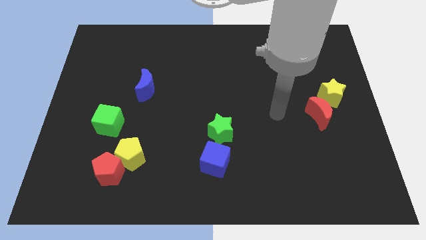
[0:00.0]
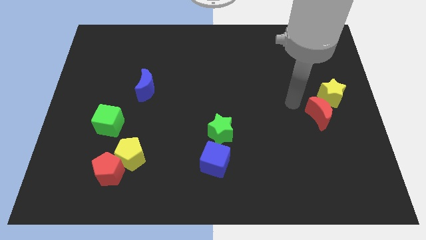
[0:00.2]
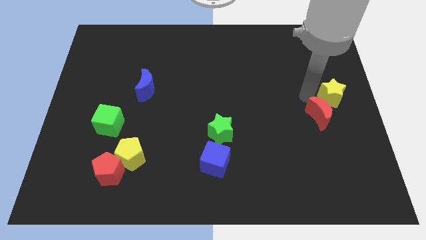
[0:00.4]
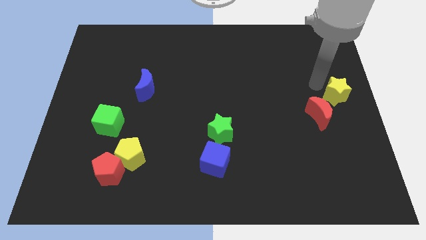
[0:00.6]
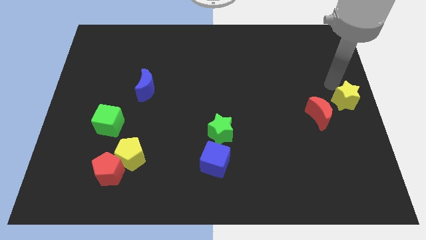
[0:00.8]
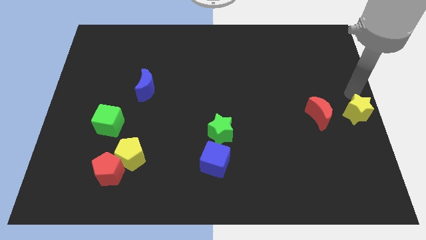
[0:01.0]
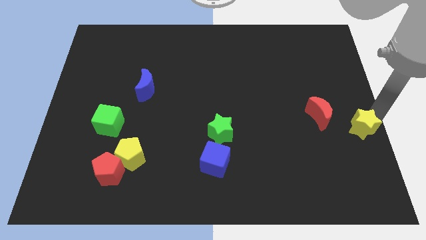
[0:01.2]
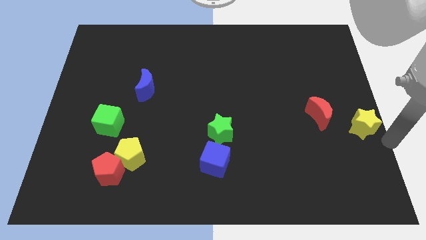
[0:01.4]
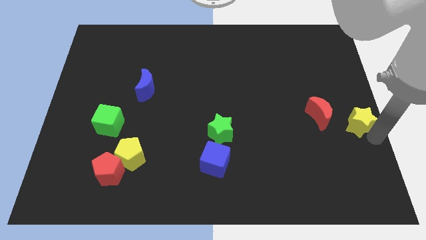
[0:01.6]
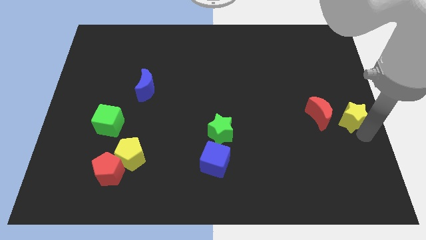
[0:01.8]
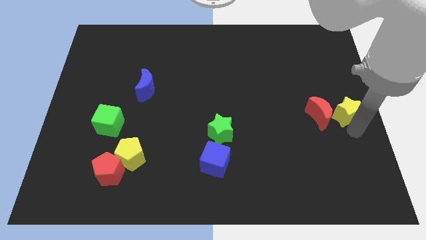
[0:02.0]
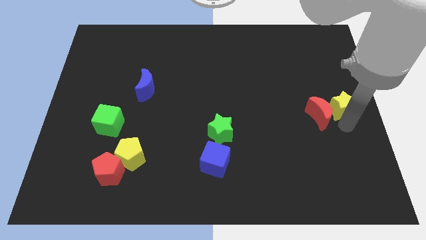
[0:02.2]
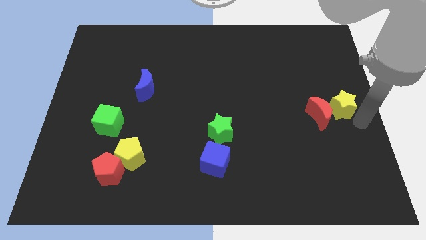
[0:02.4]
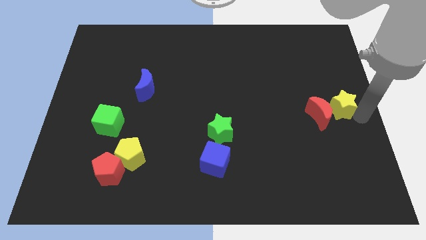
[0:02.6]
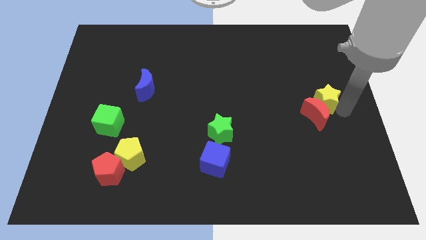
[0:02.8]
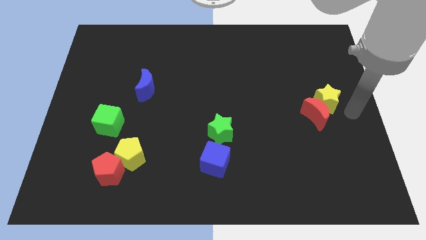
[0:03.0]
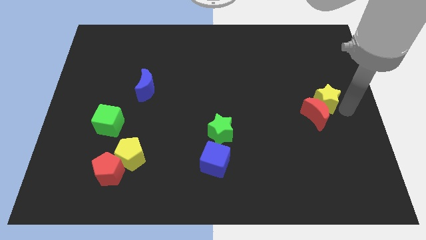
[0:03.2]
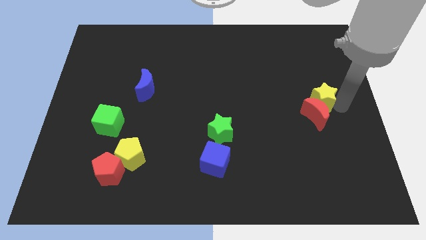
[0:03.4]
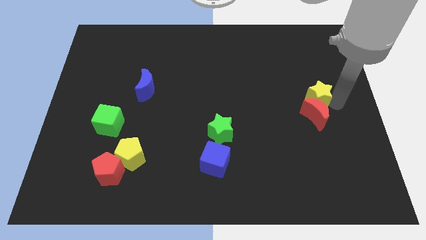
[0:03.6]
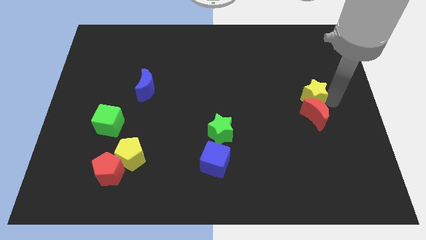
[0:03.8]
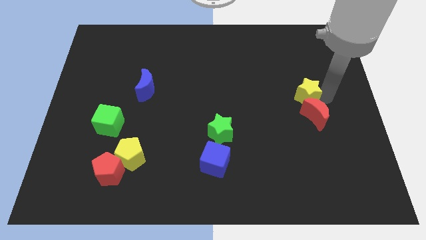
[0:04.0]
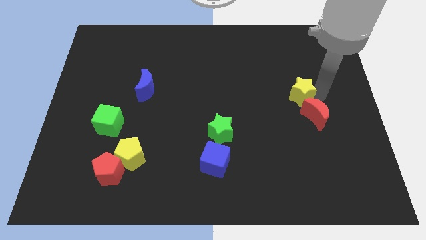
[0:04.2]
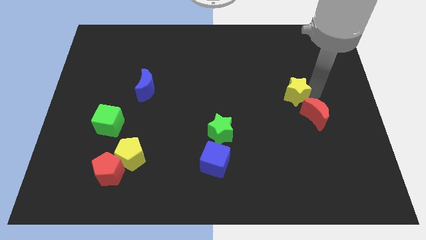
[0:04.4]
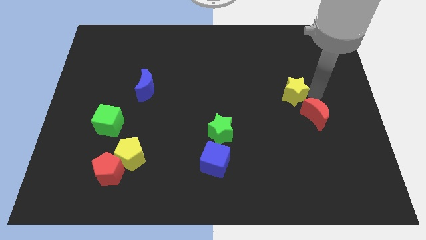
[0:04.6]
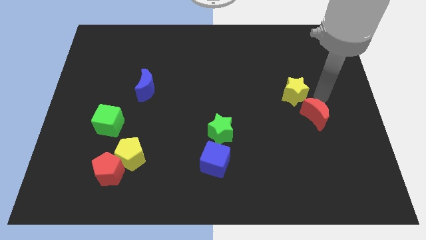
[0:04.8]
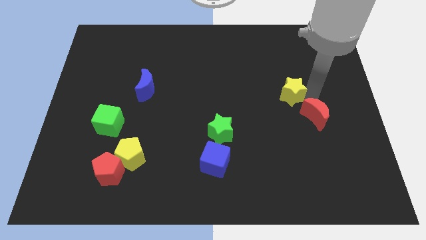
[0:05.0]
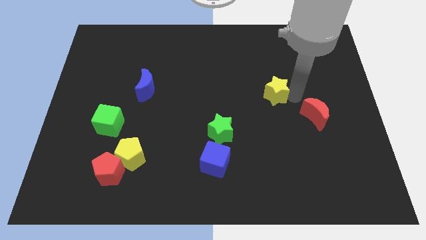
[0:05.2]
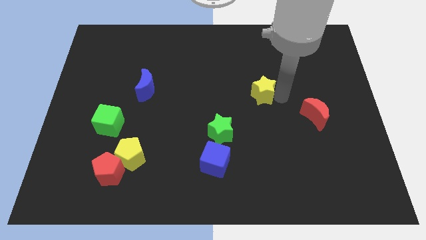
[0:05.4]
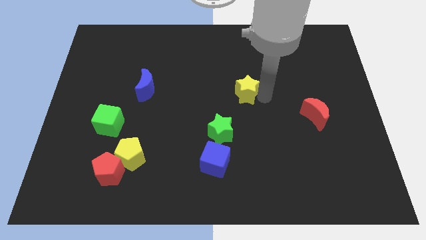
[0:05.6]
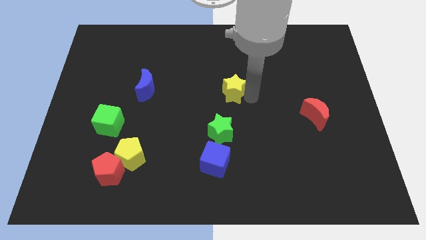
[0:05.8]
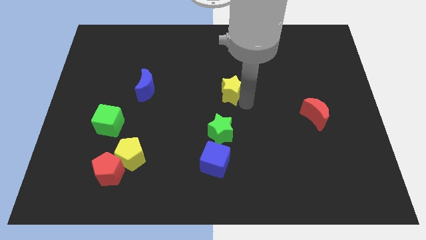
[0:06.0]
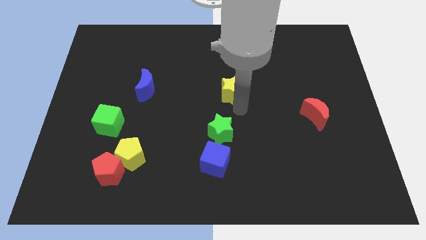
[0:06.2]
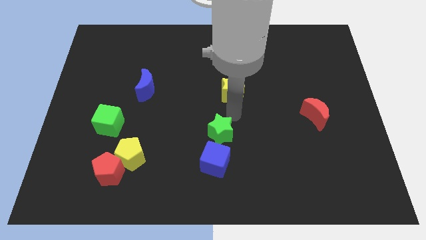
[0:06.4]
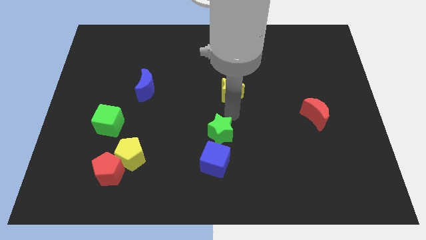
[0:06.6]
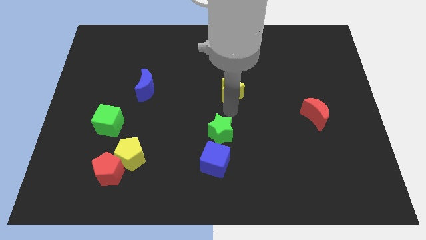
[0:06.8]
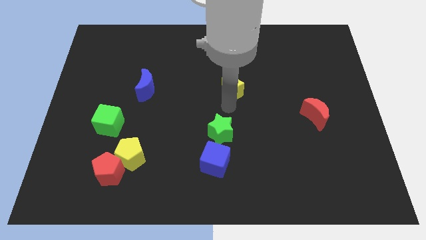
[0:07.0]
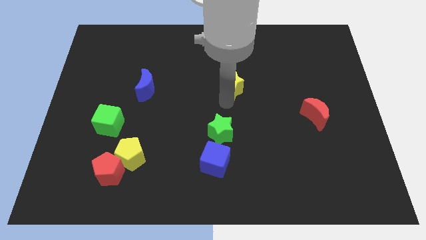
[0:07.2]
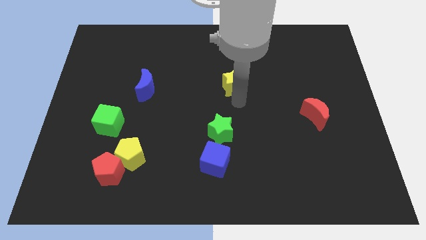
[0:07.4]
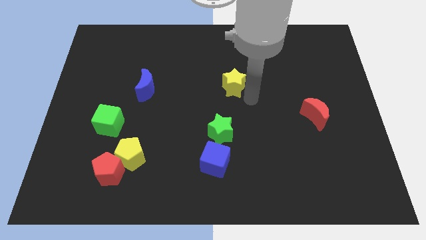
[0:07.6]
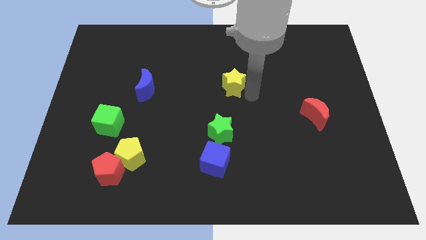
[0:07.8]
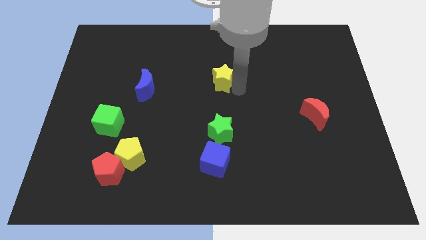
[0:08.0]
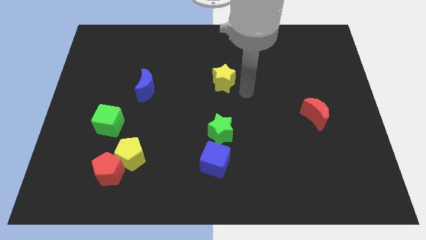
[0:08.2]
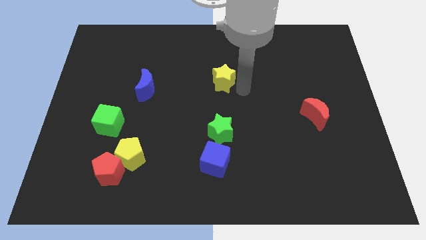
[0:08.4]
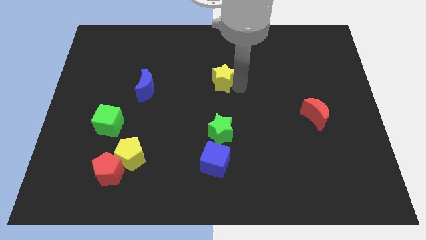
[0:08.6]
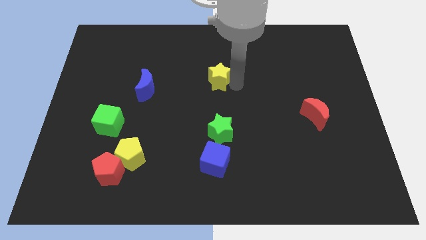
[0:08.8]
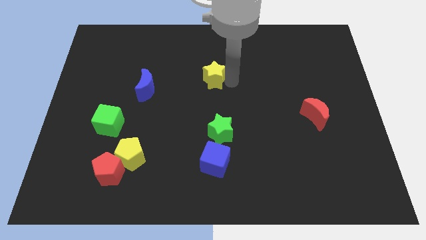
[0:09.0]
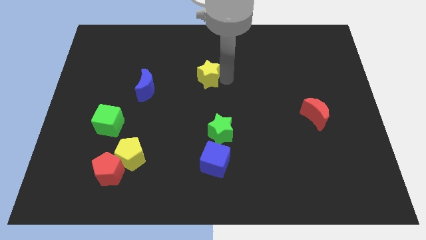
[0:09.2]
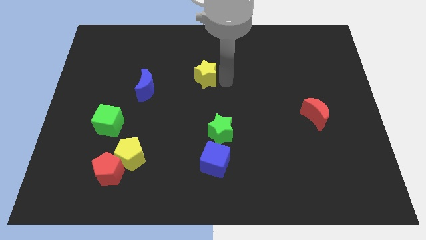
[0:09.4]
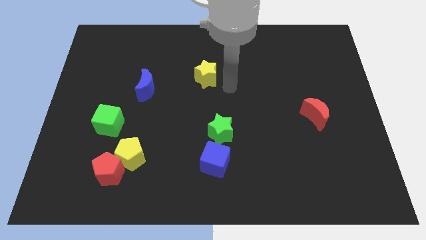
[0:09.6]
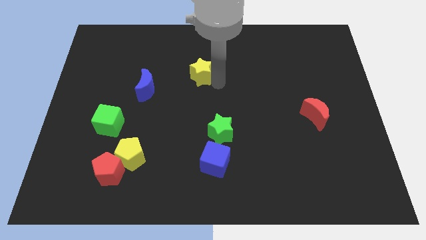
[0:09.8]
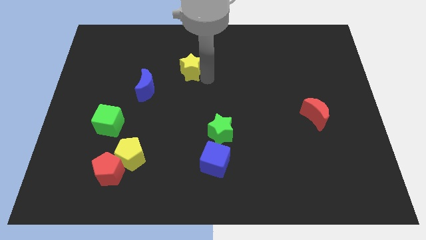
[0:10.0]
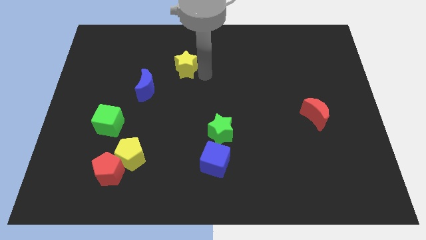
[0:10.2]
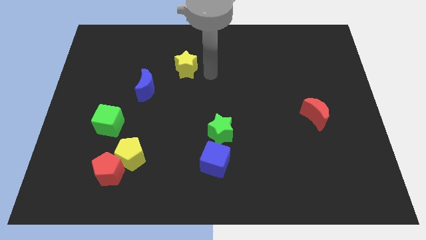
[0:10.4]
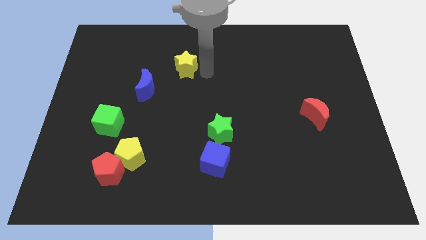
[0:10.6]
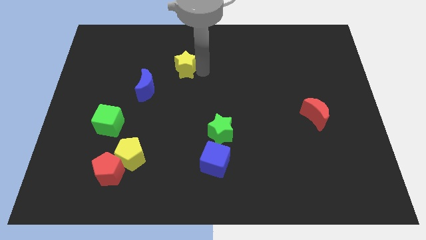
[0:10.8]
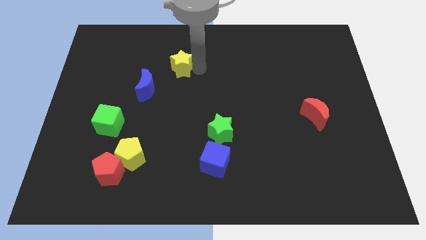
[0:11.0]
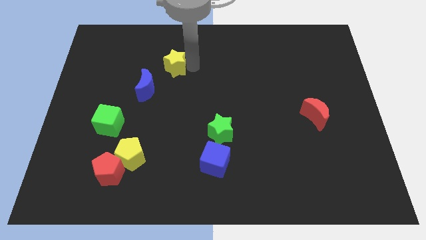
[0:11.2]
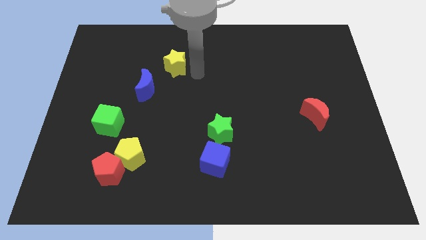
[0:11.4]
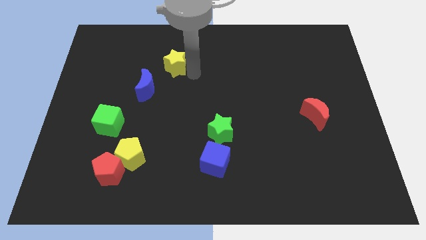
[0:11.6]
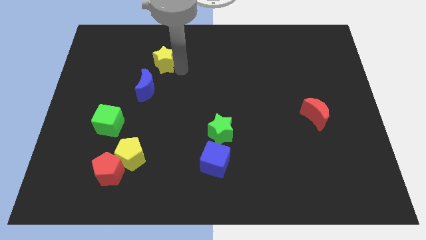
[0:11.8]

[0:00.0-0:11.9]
slide the yellow star above the blue moon

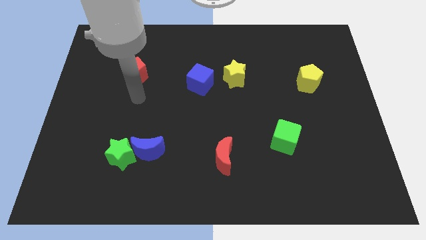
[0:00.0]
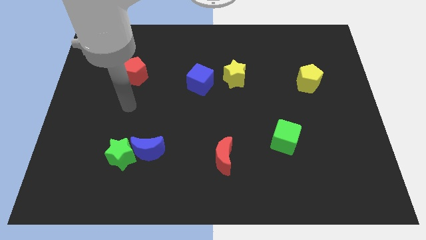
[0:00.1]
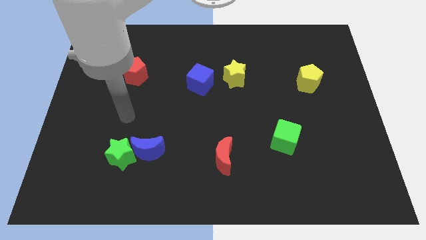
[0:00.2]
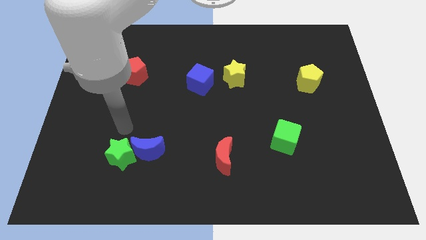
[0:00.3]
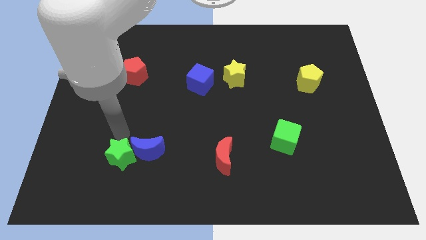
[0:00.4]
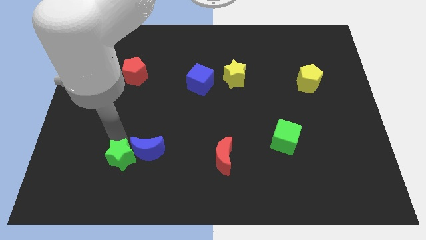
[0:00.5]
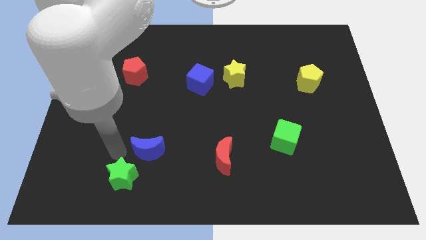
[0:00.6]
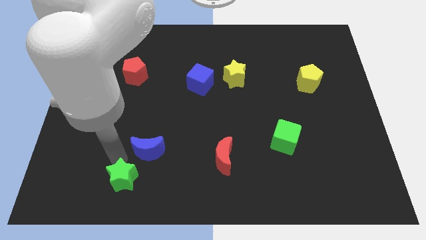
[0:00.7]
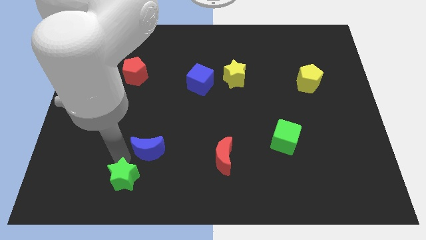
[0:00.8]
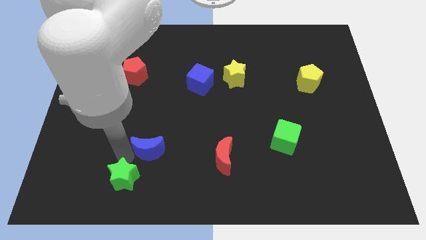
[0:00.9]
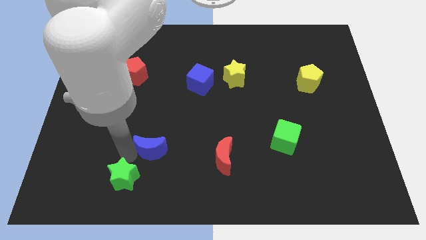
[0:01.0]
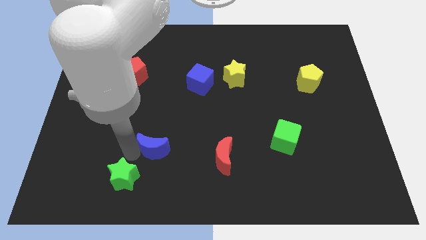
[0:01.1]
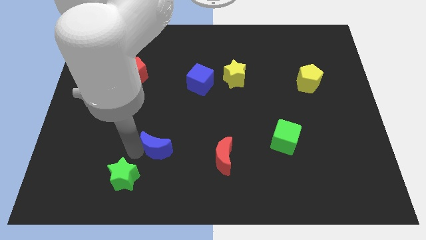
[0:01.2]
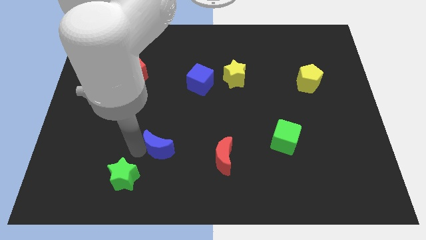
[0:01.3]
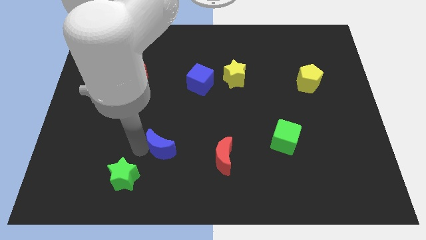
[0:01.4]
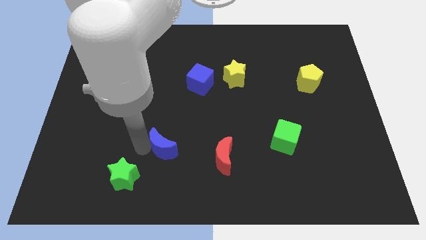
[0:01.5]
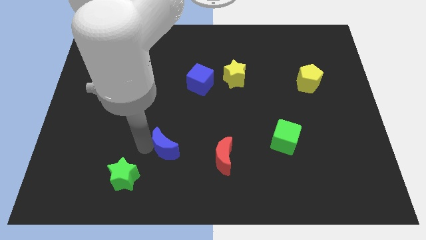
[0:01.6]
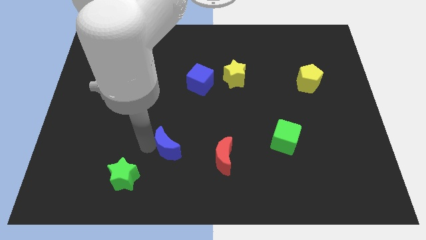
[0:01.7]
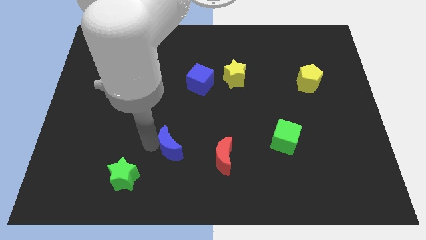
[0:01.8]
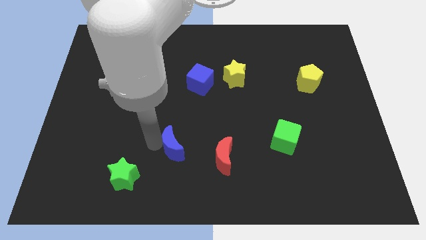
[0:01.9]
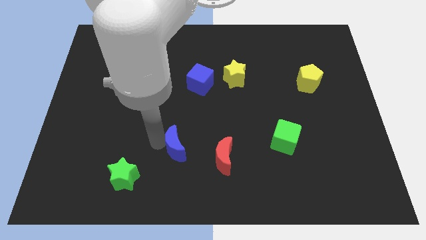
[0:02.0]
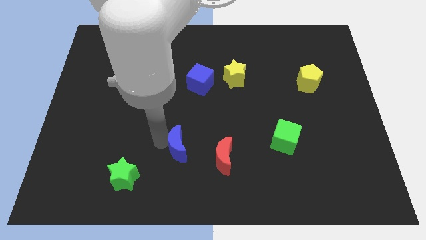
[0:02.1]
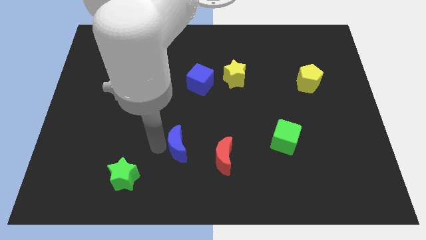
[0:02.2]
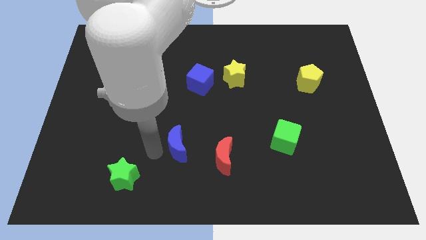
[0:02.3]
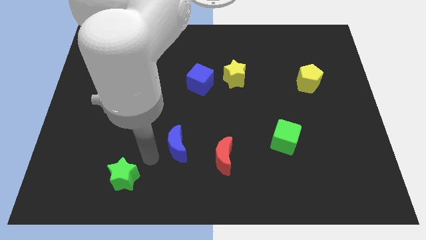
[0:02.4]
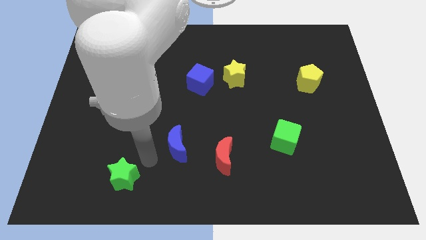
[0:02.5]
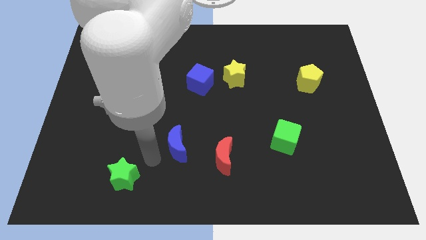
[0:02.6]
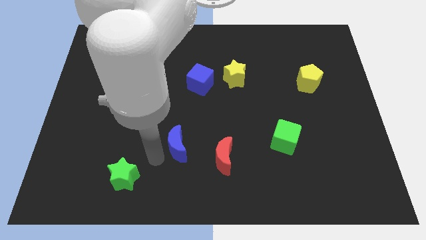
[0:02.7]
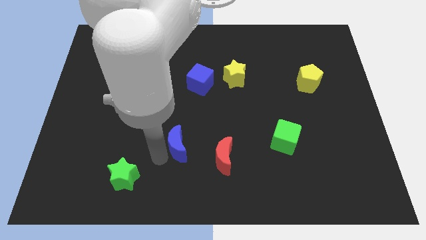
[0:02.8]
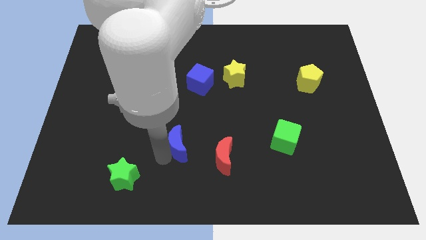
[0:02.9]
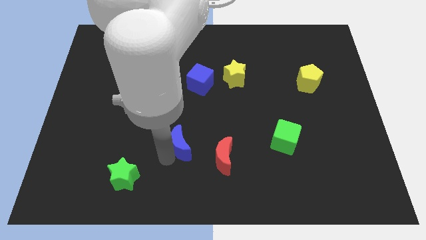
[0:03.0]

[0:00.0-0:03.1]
push the blue moon diagonally up and to the left of the red moon
